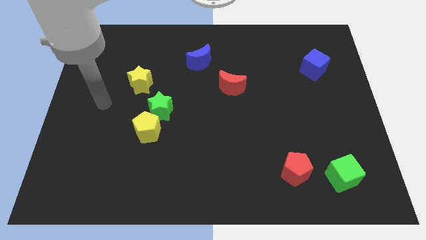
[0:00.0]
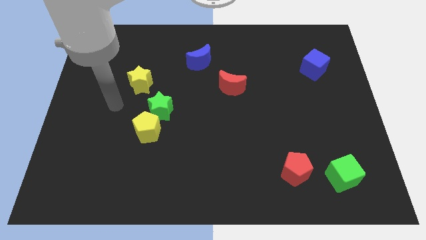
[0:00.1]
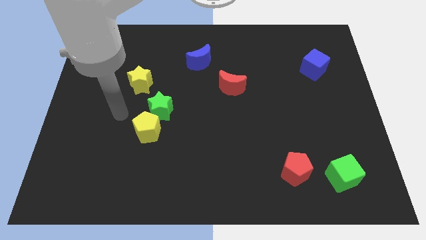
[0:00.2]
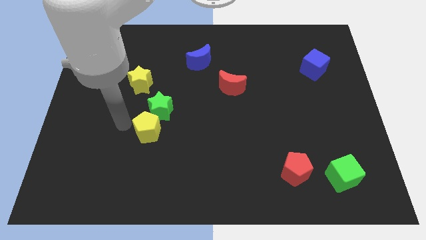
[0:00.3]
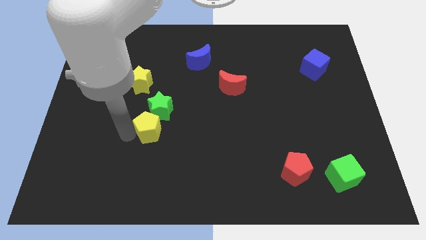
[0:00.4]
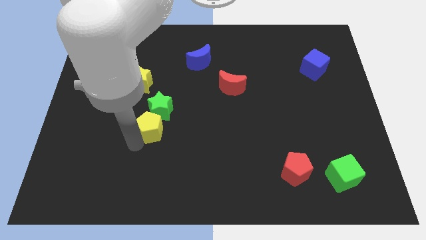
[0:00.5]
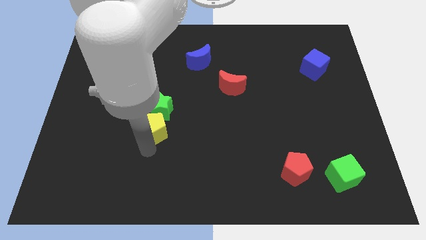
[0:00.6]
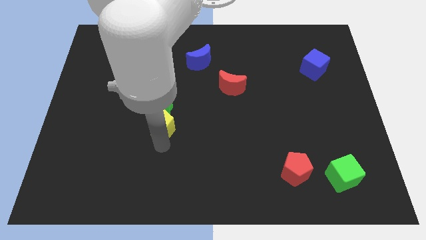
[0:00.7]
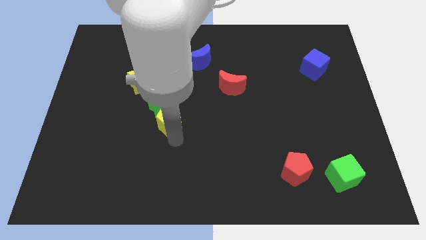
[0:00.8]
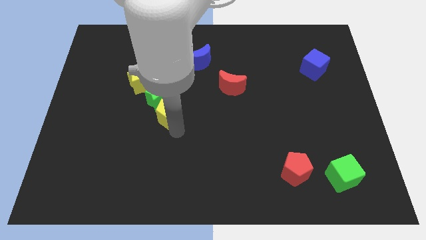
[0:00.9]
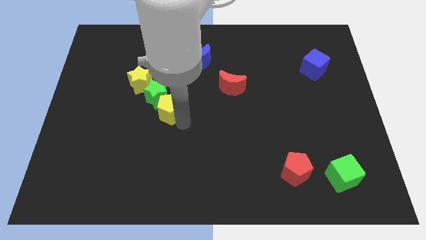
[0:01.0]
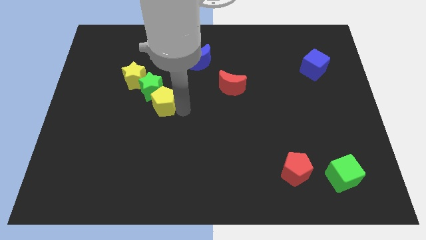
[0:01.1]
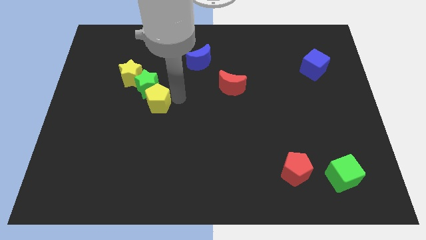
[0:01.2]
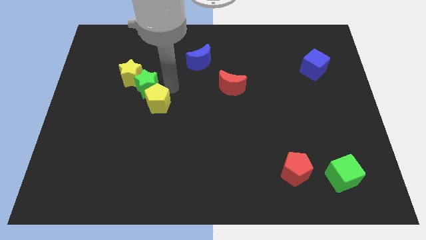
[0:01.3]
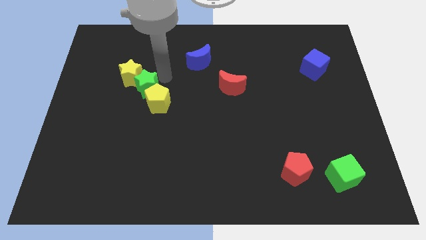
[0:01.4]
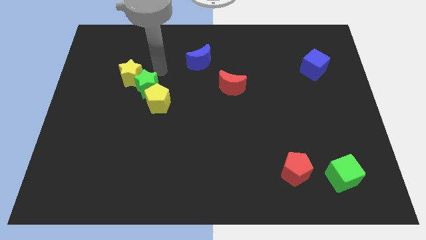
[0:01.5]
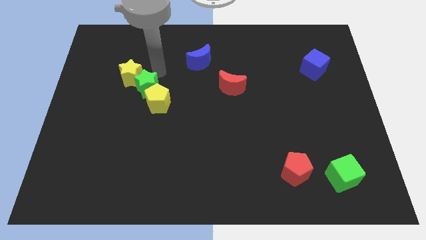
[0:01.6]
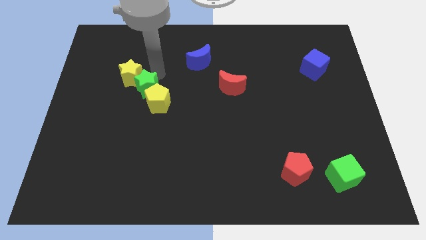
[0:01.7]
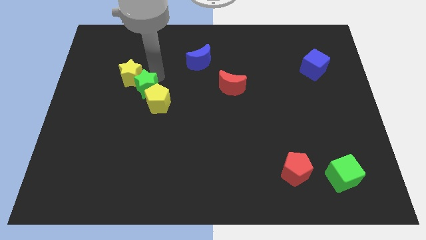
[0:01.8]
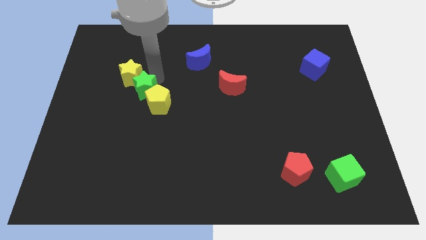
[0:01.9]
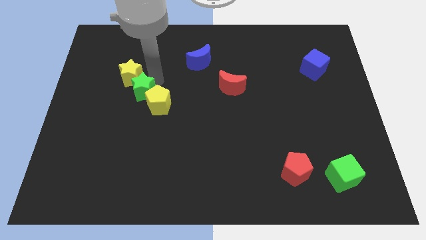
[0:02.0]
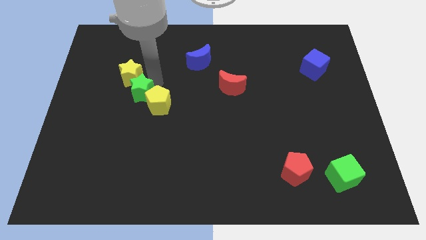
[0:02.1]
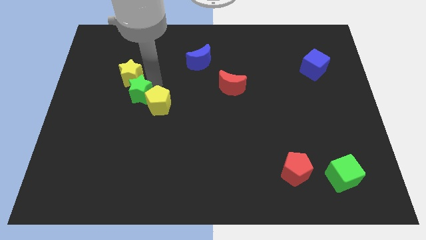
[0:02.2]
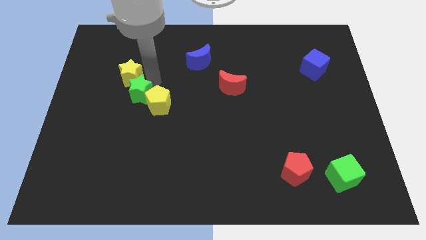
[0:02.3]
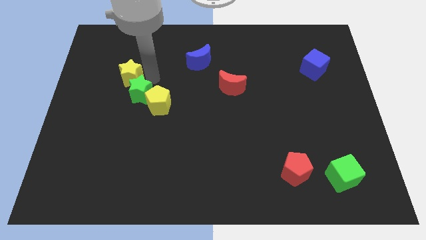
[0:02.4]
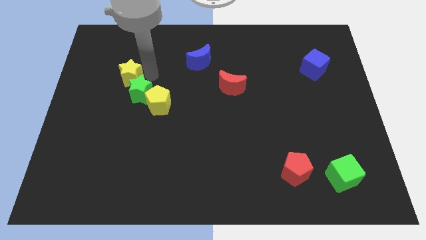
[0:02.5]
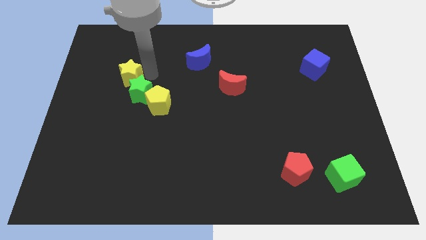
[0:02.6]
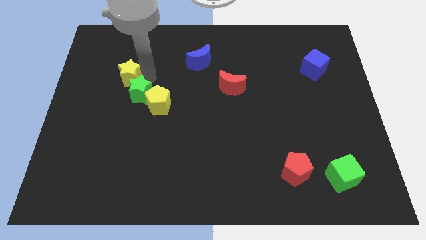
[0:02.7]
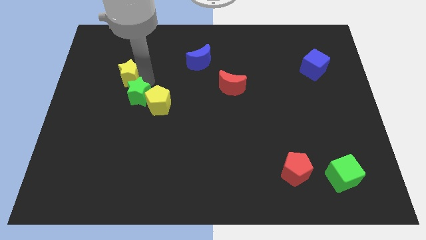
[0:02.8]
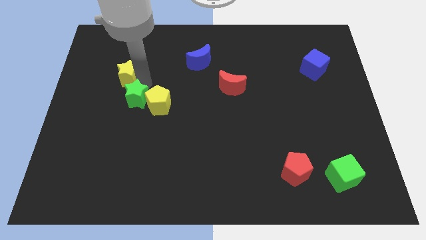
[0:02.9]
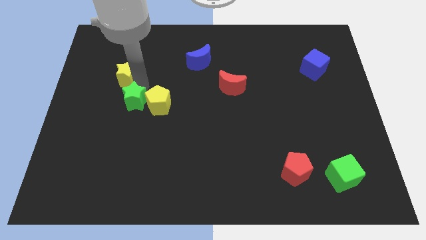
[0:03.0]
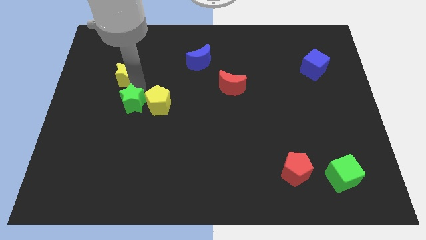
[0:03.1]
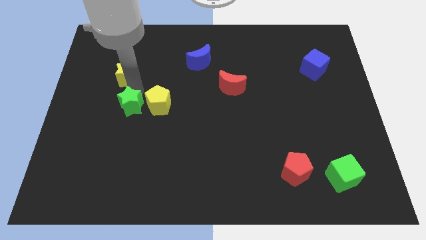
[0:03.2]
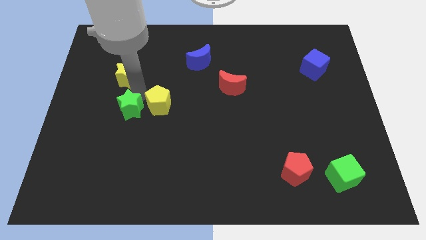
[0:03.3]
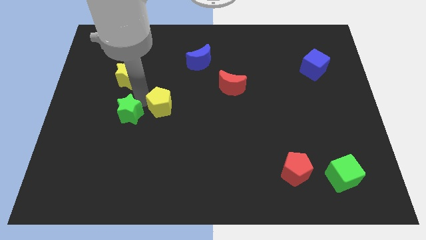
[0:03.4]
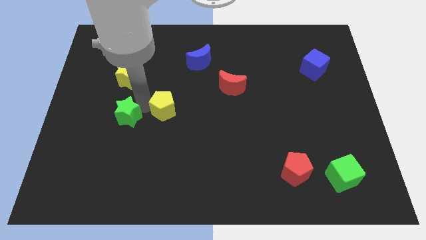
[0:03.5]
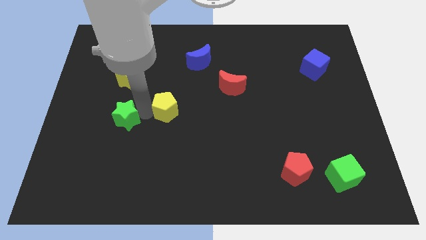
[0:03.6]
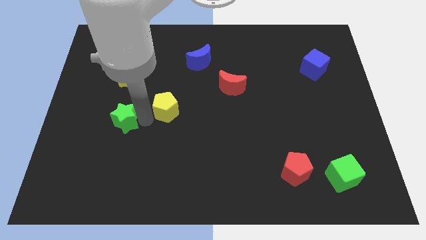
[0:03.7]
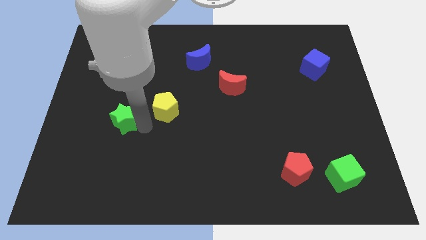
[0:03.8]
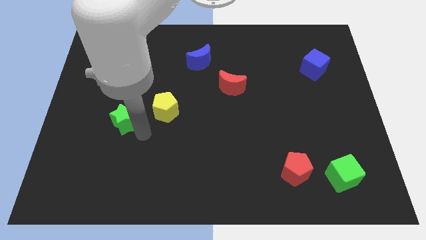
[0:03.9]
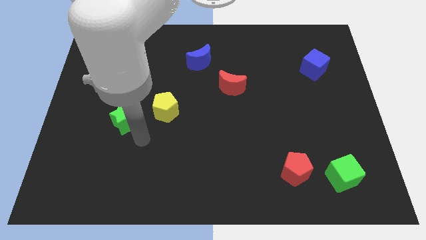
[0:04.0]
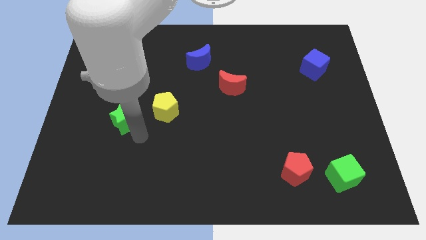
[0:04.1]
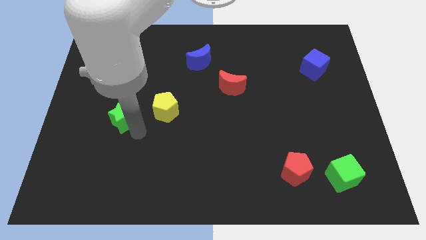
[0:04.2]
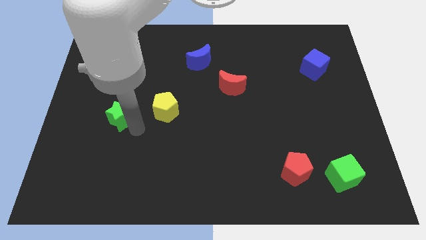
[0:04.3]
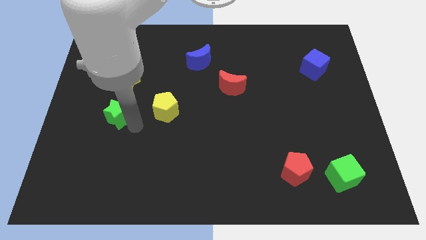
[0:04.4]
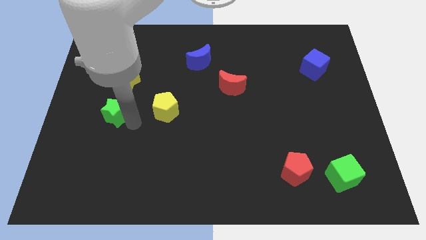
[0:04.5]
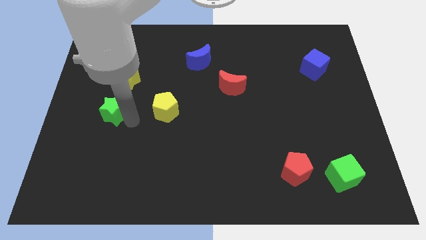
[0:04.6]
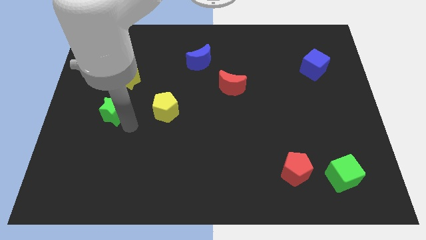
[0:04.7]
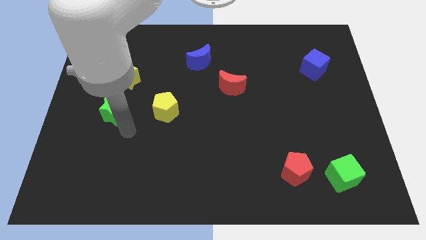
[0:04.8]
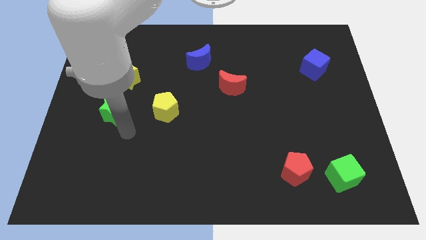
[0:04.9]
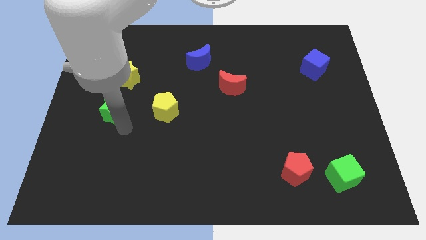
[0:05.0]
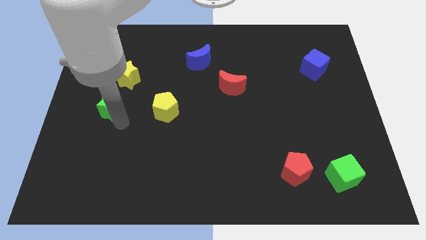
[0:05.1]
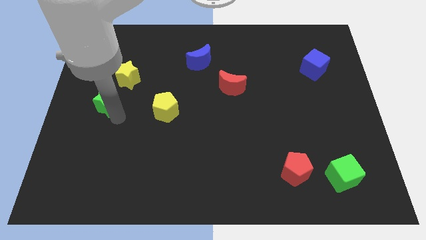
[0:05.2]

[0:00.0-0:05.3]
put the green star to the bottom left side of the yellow star

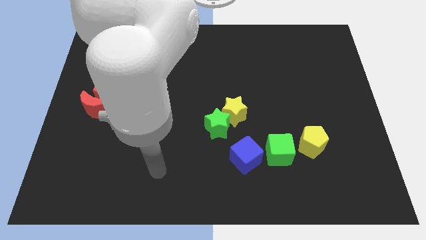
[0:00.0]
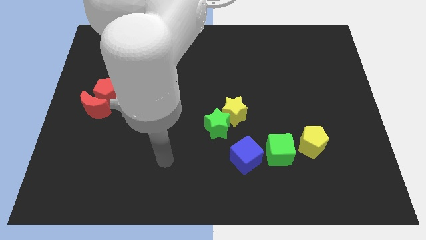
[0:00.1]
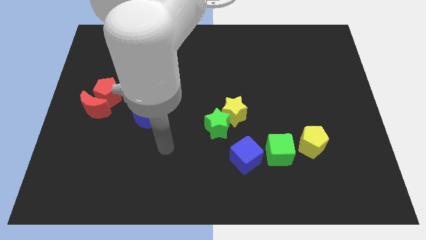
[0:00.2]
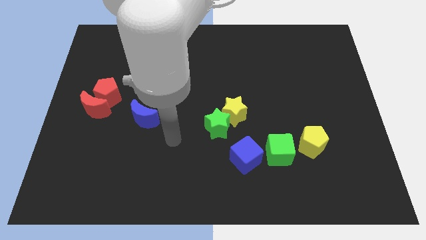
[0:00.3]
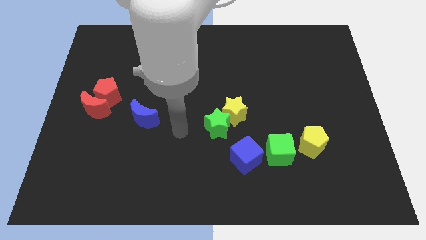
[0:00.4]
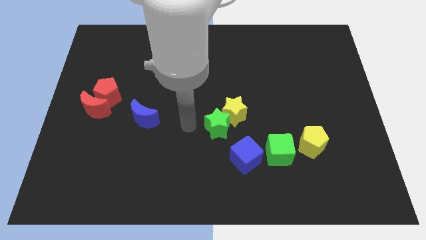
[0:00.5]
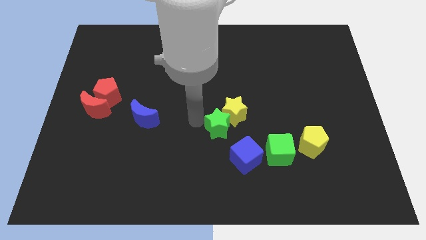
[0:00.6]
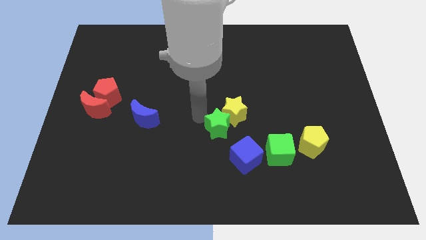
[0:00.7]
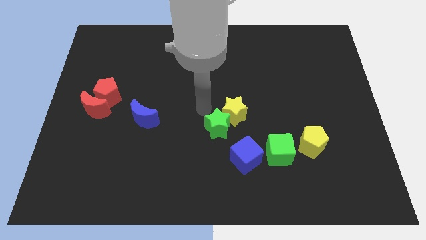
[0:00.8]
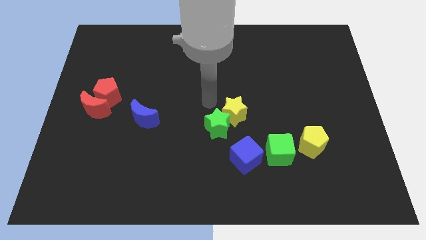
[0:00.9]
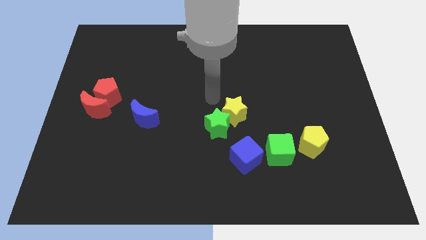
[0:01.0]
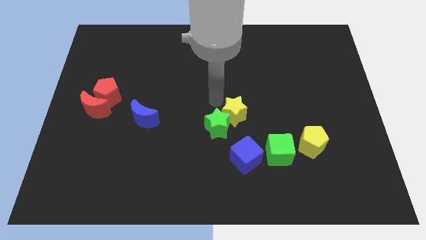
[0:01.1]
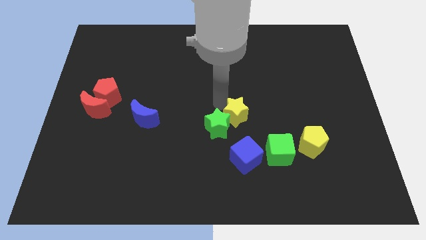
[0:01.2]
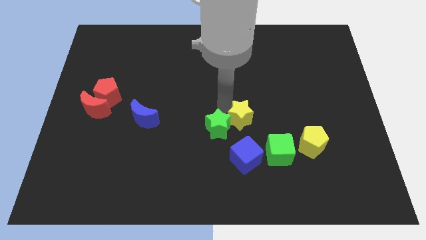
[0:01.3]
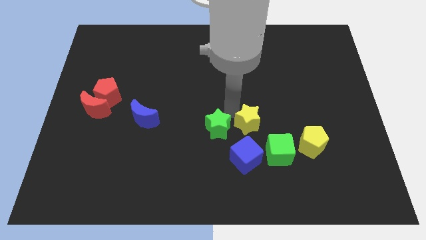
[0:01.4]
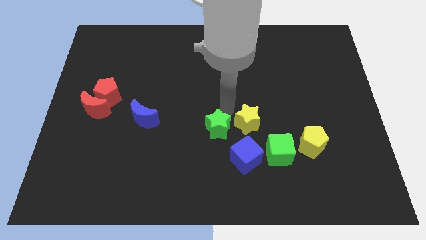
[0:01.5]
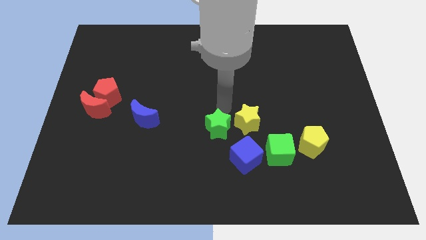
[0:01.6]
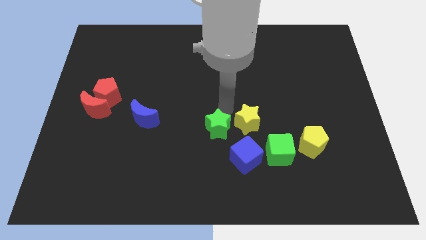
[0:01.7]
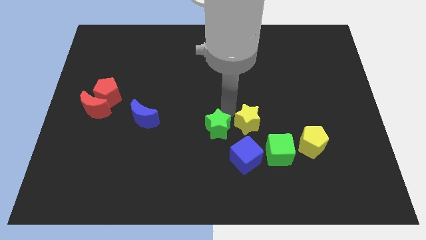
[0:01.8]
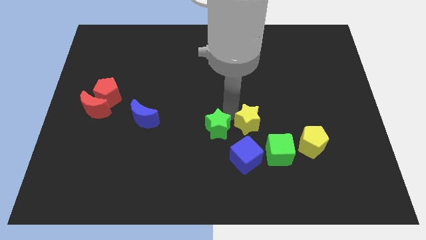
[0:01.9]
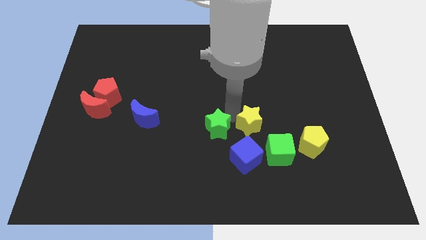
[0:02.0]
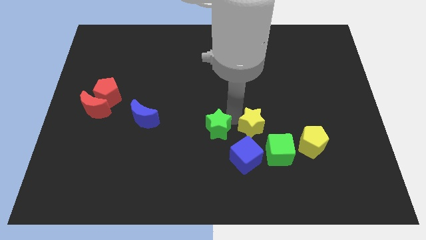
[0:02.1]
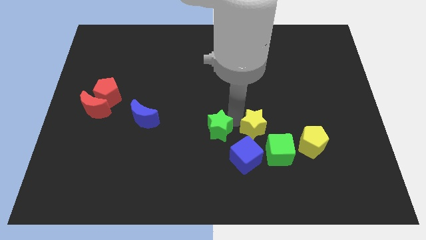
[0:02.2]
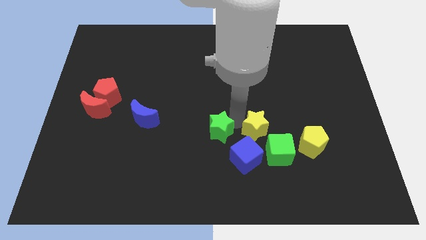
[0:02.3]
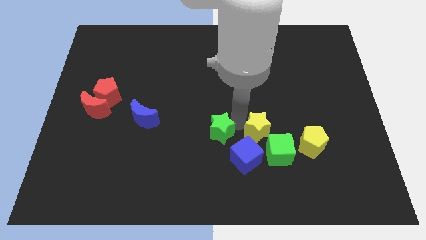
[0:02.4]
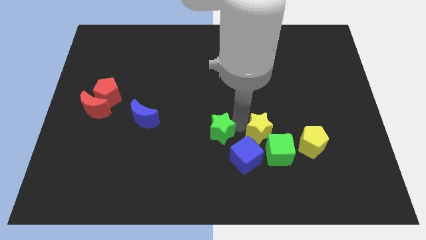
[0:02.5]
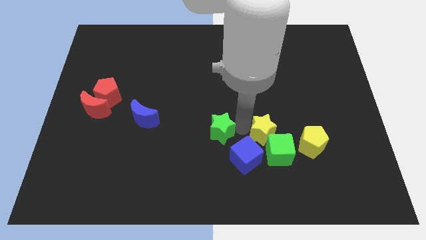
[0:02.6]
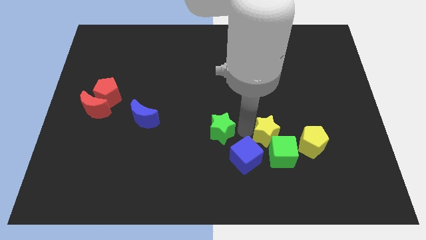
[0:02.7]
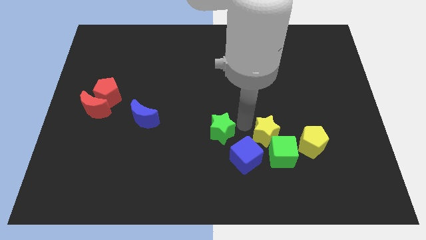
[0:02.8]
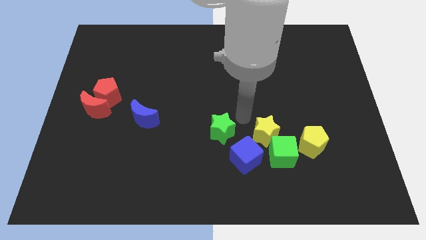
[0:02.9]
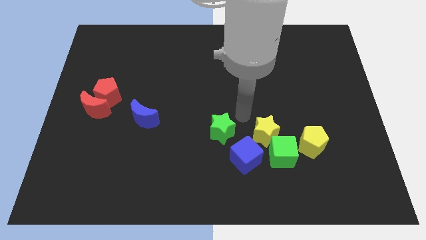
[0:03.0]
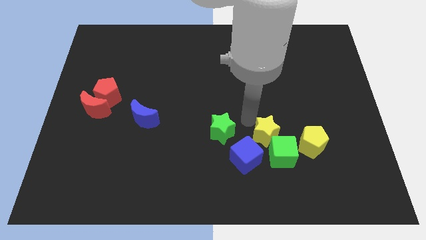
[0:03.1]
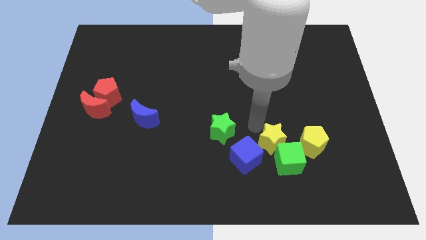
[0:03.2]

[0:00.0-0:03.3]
put the yellow star right of the blue cube
